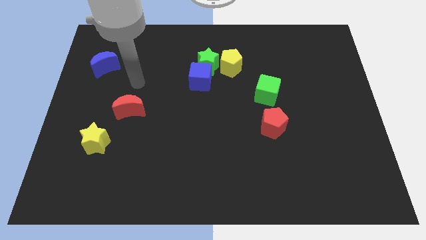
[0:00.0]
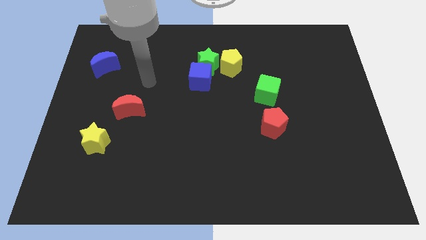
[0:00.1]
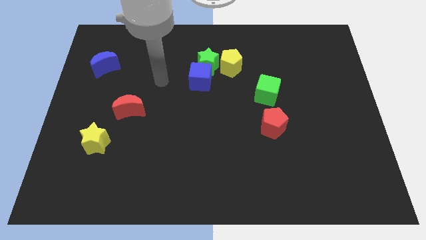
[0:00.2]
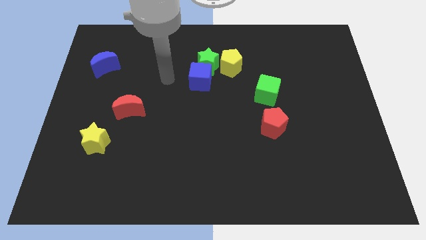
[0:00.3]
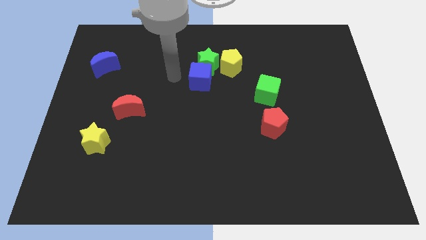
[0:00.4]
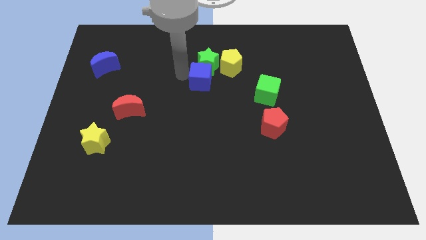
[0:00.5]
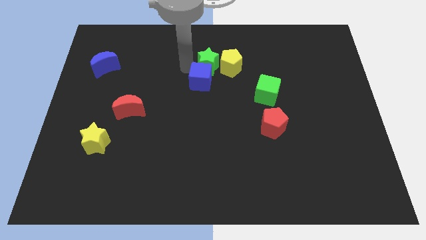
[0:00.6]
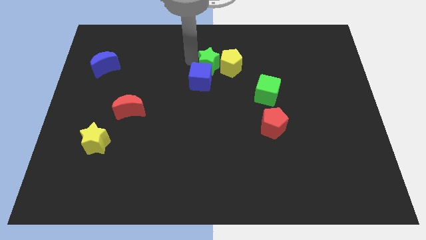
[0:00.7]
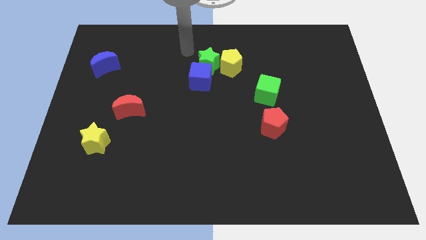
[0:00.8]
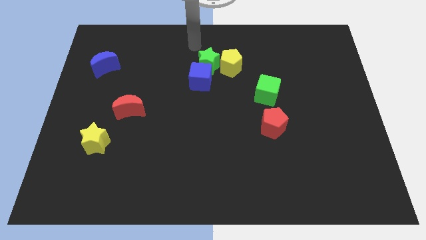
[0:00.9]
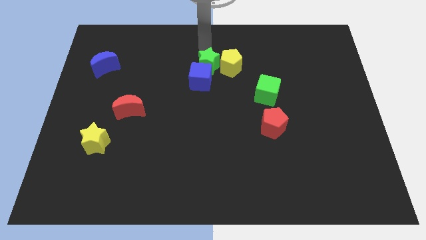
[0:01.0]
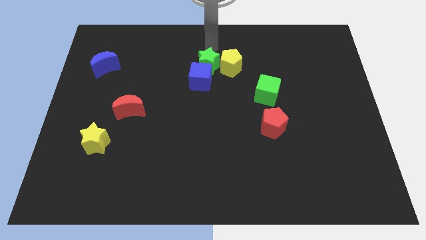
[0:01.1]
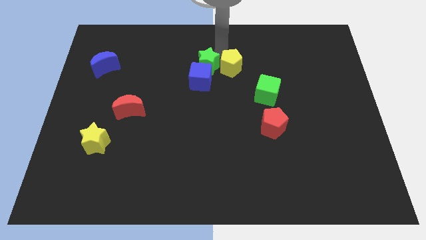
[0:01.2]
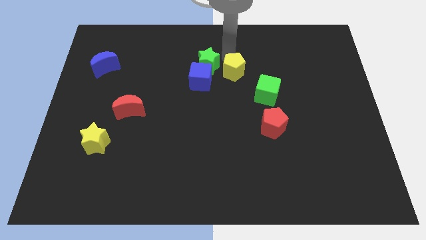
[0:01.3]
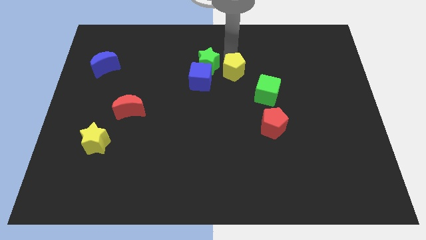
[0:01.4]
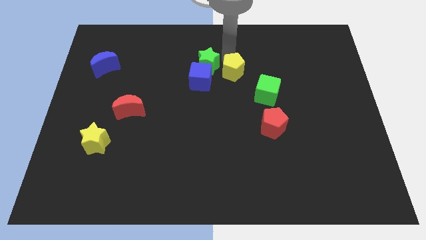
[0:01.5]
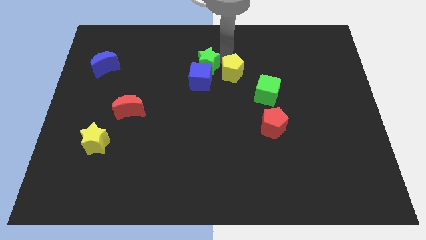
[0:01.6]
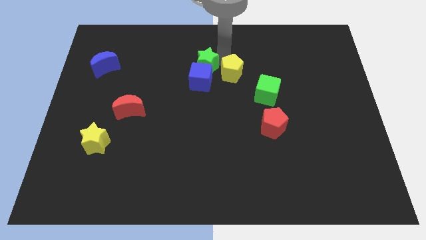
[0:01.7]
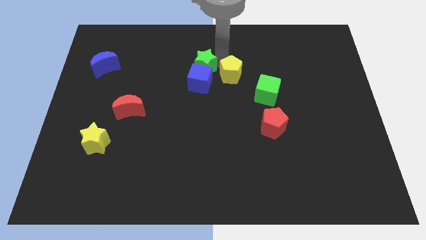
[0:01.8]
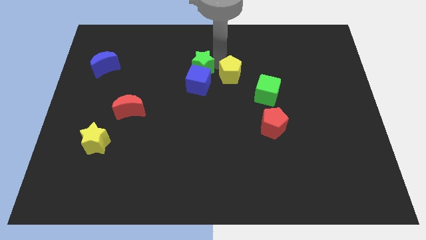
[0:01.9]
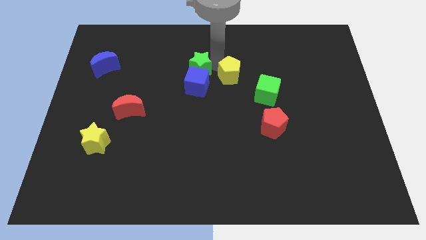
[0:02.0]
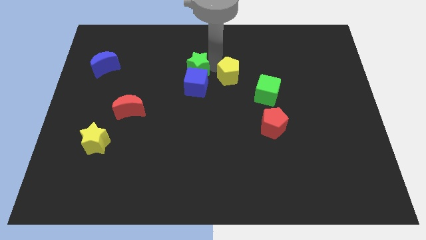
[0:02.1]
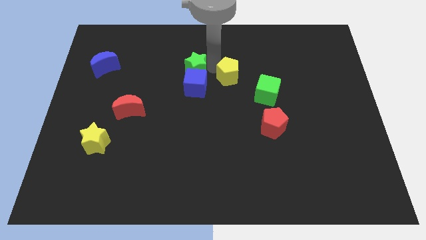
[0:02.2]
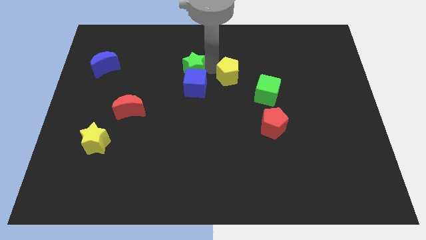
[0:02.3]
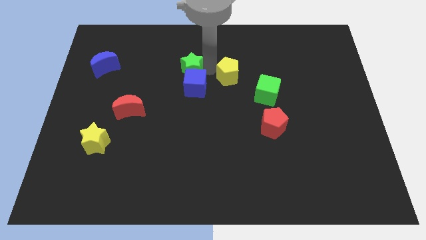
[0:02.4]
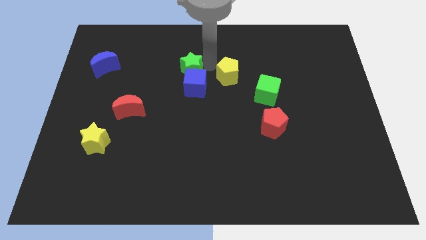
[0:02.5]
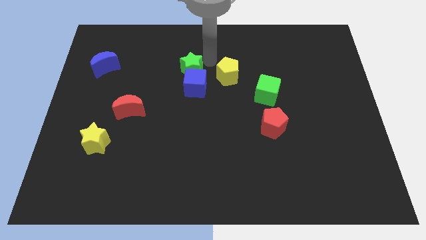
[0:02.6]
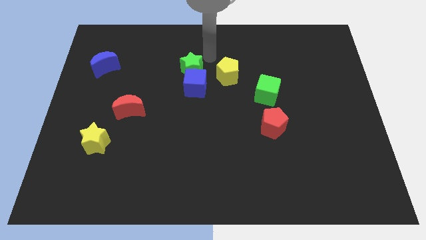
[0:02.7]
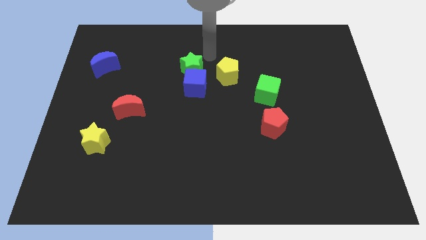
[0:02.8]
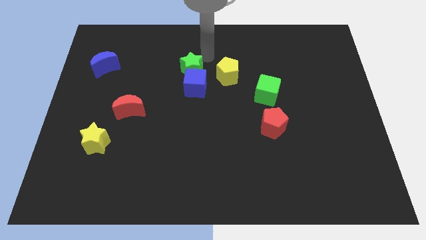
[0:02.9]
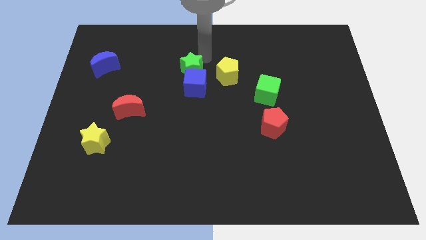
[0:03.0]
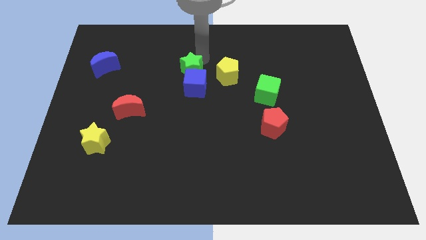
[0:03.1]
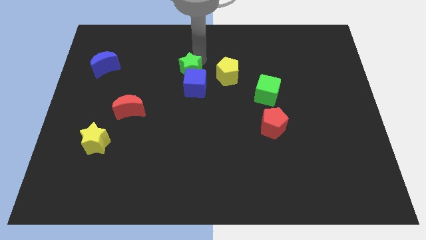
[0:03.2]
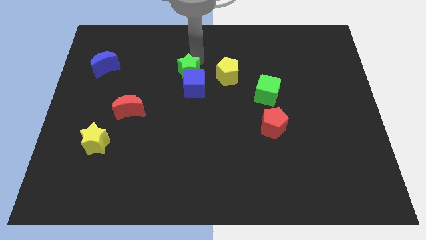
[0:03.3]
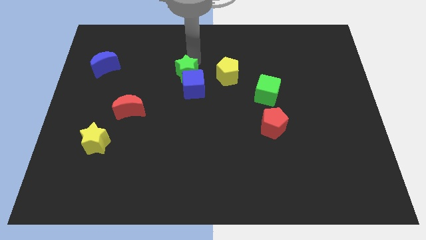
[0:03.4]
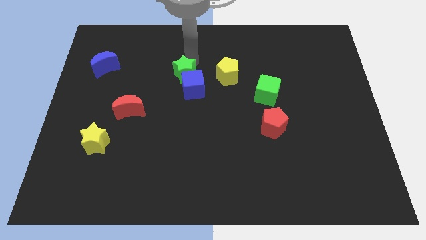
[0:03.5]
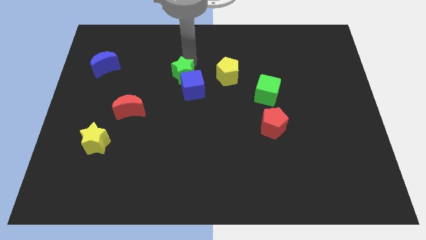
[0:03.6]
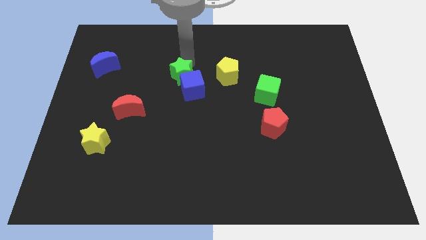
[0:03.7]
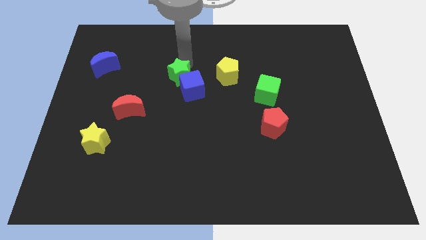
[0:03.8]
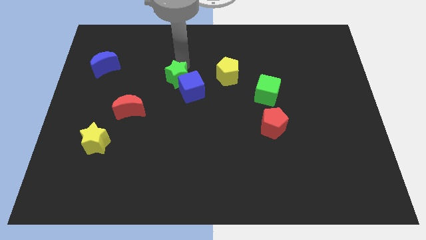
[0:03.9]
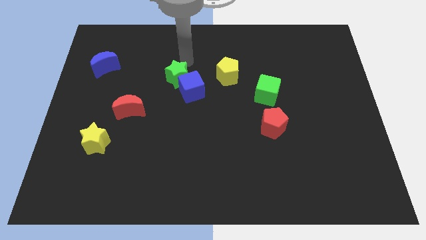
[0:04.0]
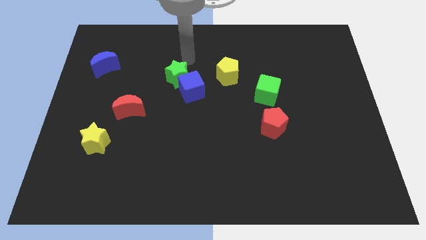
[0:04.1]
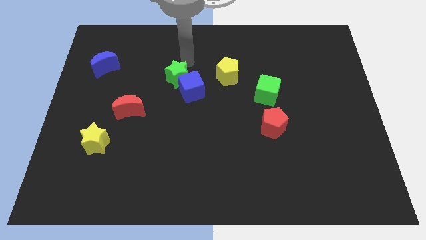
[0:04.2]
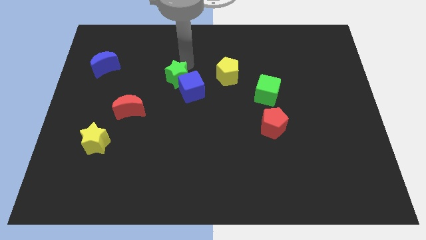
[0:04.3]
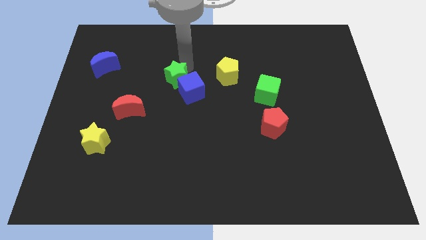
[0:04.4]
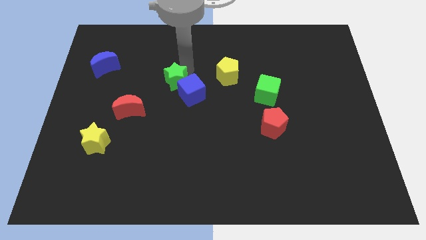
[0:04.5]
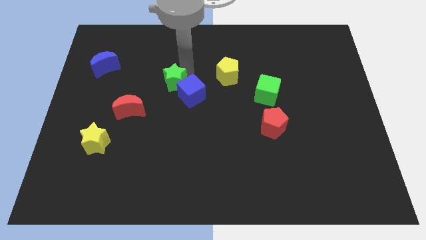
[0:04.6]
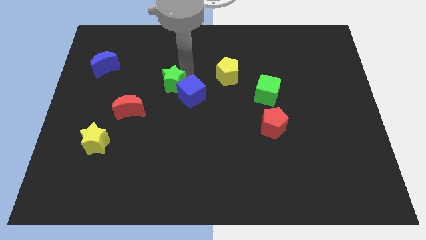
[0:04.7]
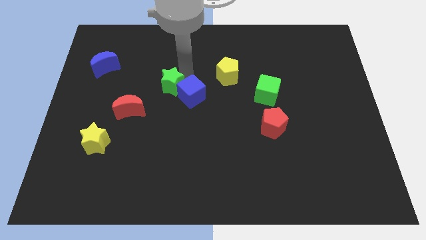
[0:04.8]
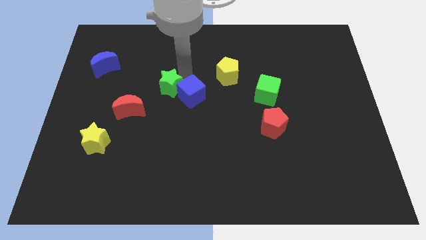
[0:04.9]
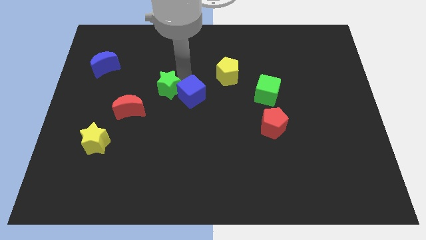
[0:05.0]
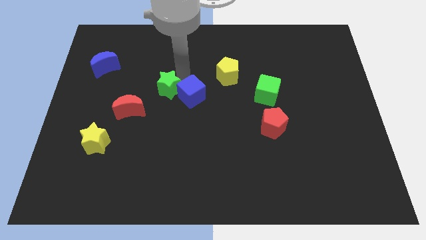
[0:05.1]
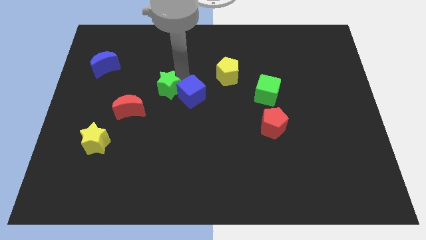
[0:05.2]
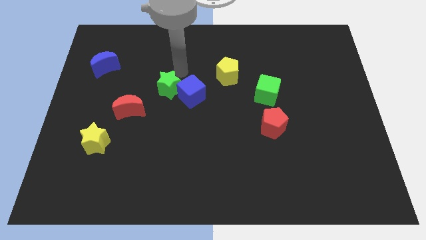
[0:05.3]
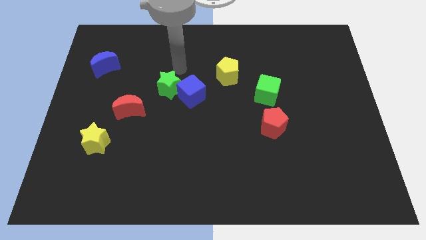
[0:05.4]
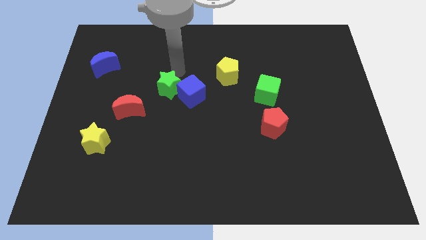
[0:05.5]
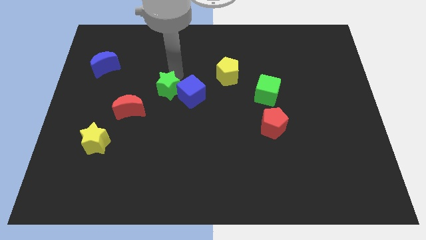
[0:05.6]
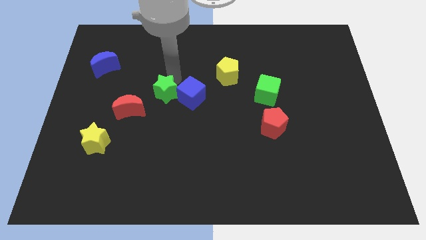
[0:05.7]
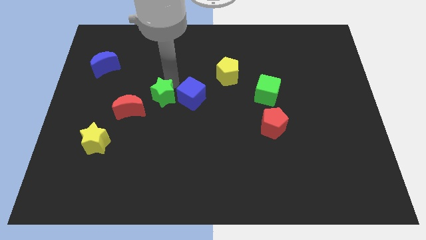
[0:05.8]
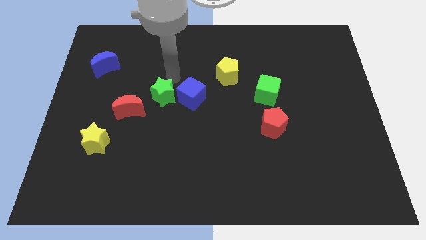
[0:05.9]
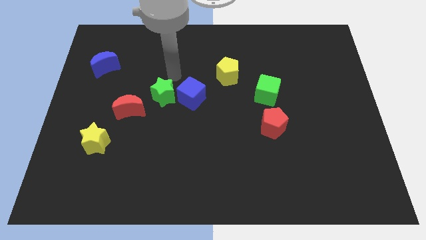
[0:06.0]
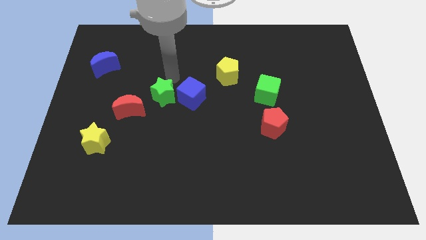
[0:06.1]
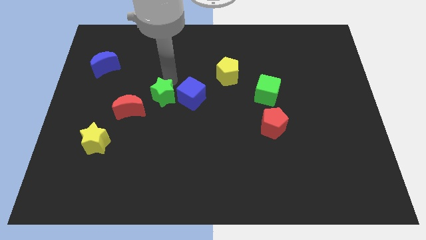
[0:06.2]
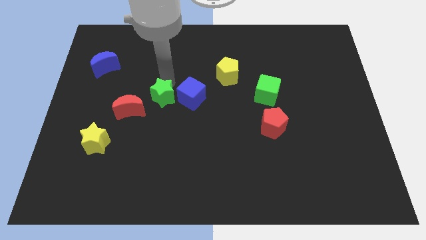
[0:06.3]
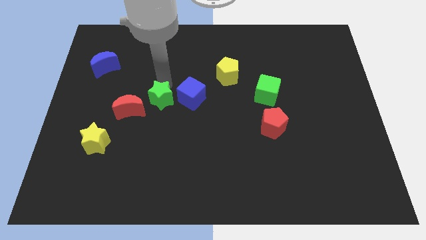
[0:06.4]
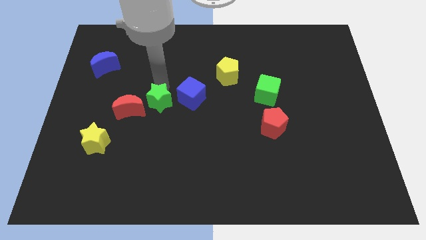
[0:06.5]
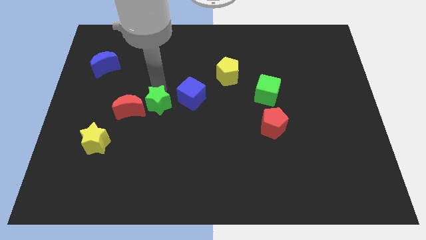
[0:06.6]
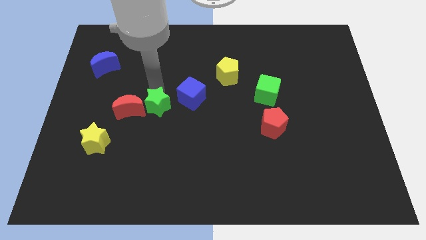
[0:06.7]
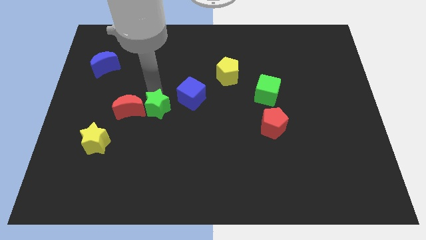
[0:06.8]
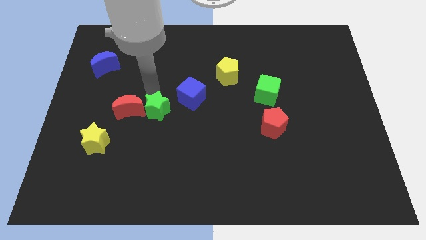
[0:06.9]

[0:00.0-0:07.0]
put the green star to the bottom right side of the red moon
